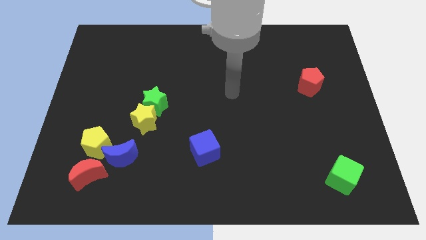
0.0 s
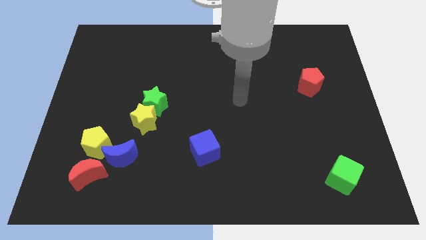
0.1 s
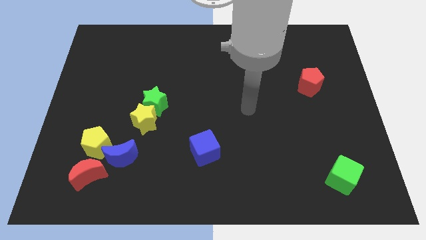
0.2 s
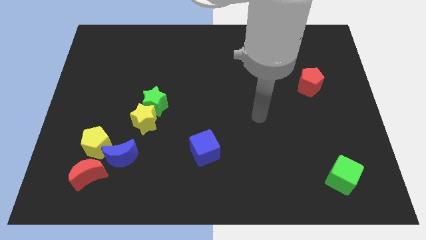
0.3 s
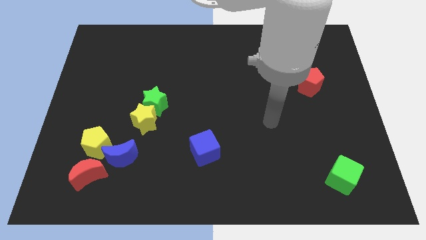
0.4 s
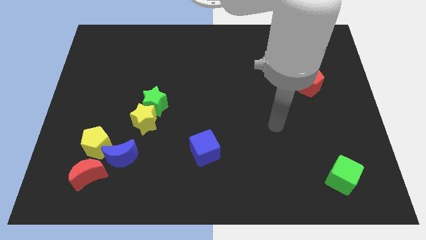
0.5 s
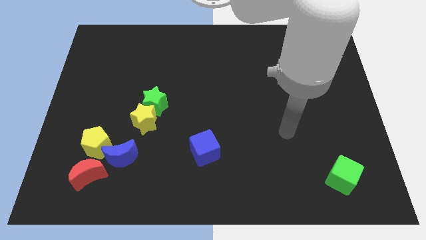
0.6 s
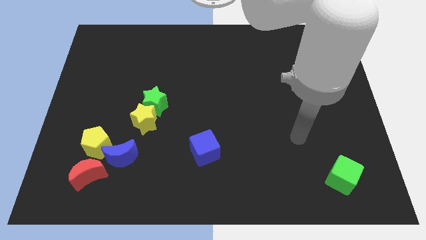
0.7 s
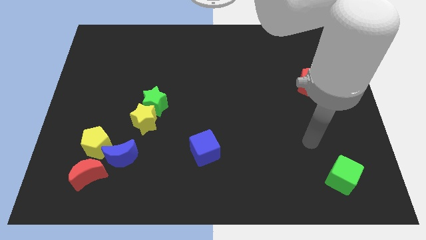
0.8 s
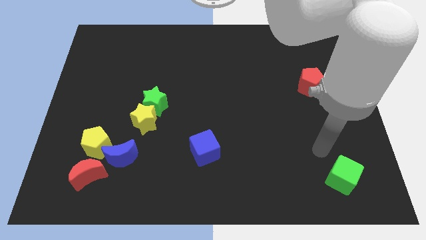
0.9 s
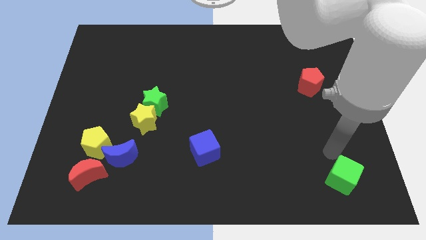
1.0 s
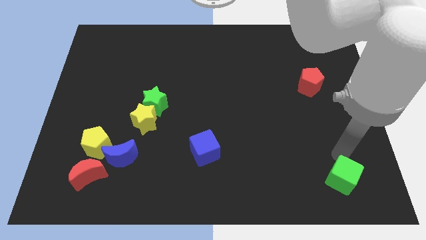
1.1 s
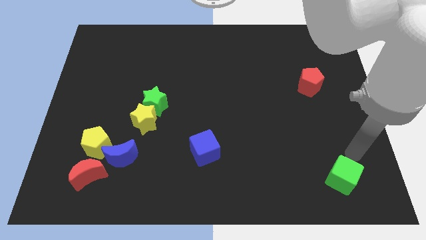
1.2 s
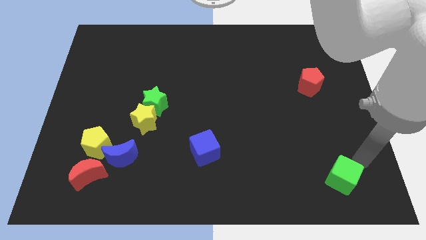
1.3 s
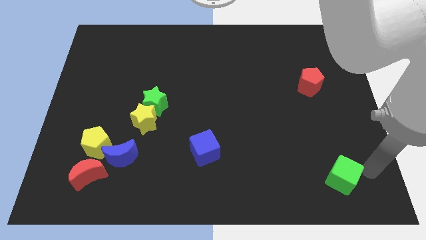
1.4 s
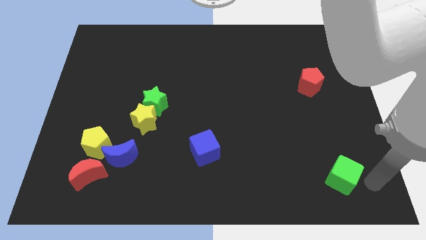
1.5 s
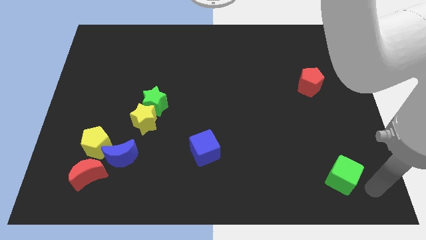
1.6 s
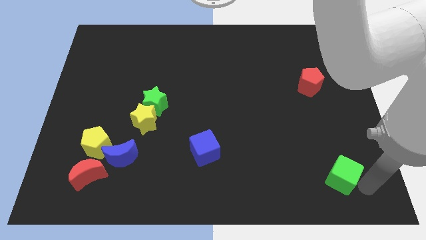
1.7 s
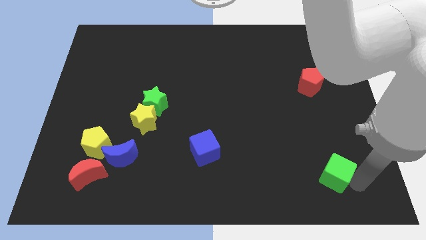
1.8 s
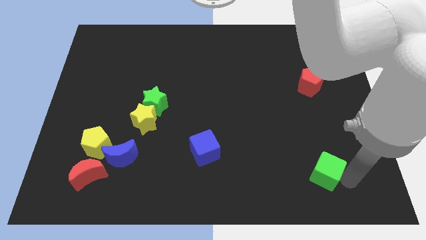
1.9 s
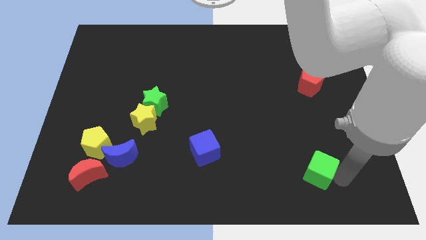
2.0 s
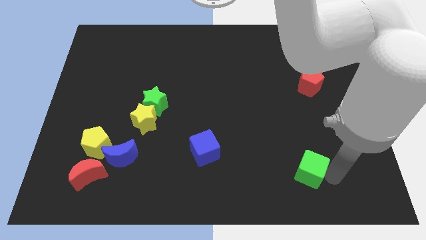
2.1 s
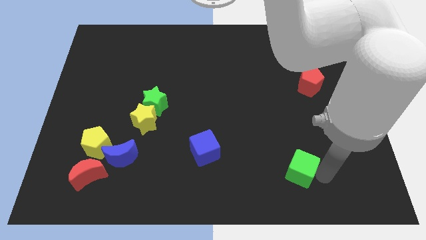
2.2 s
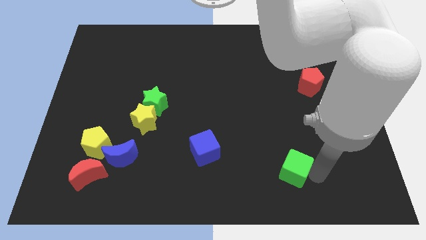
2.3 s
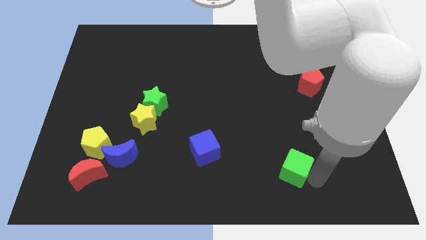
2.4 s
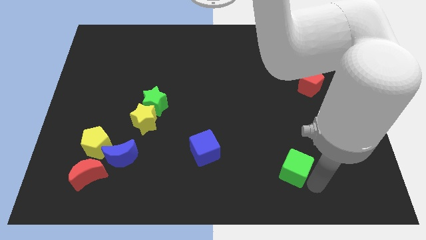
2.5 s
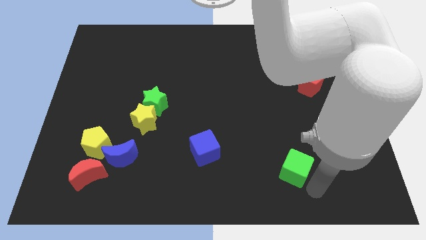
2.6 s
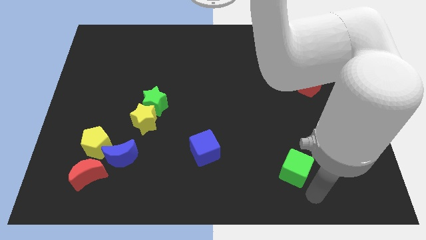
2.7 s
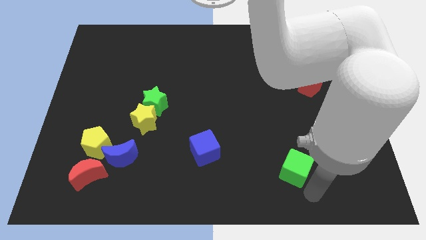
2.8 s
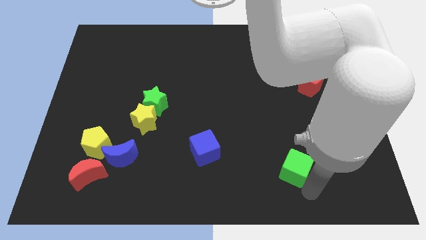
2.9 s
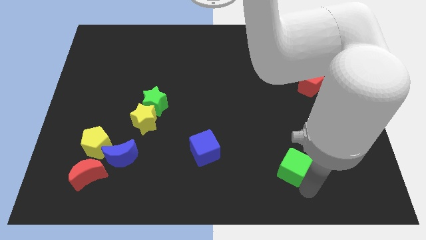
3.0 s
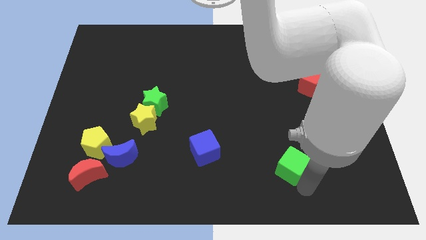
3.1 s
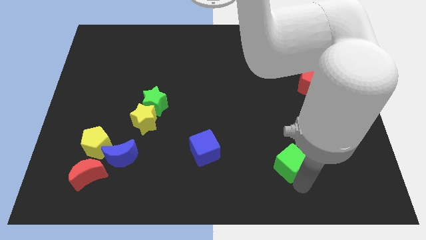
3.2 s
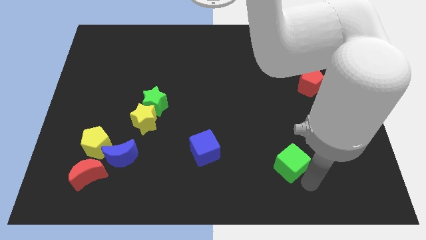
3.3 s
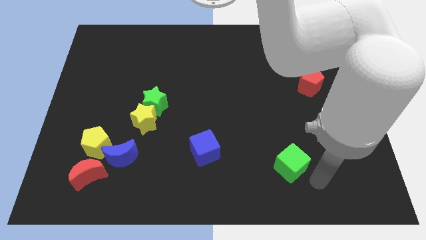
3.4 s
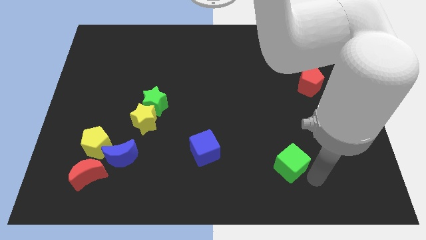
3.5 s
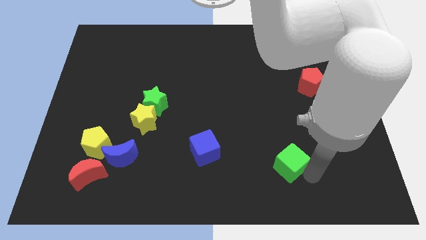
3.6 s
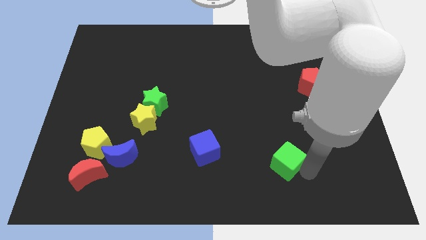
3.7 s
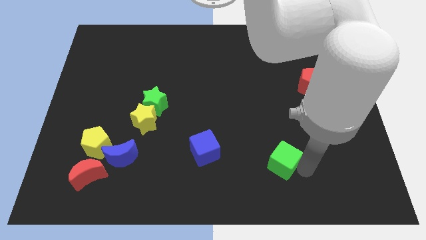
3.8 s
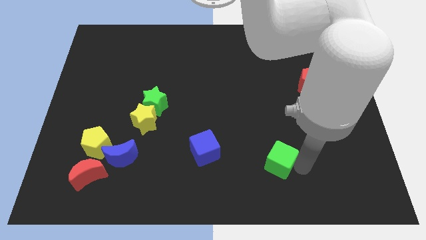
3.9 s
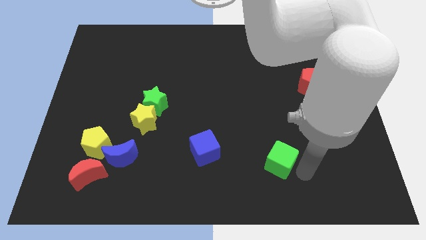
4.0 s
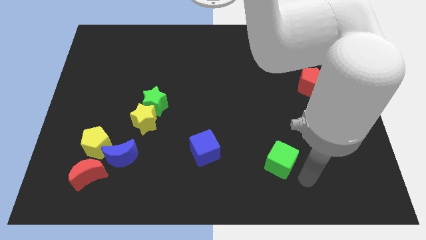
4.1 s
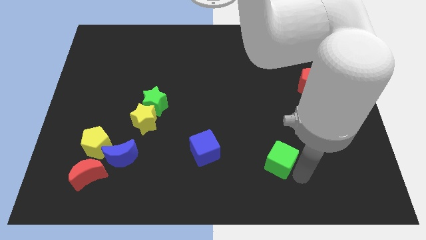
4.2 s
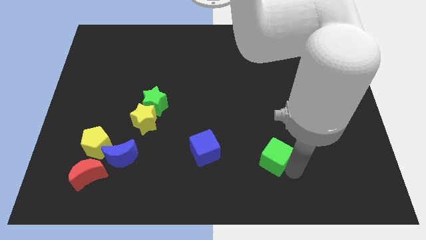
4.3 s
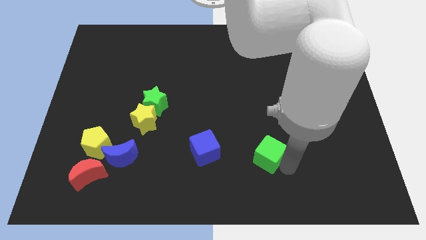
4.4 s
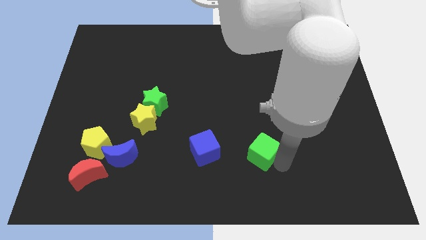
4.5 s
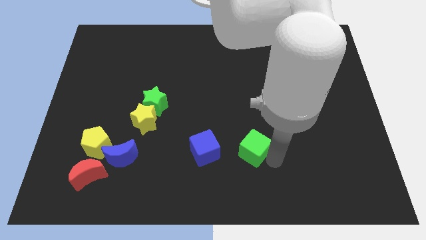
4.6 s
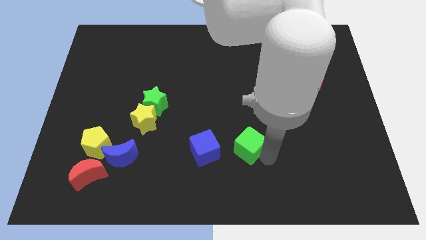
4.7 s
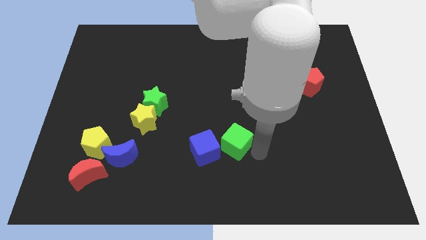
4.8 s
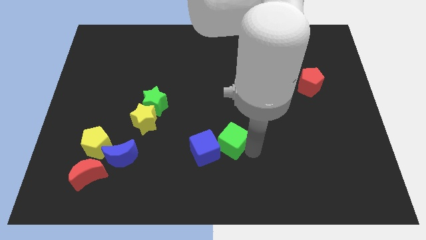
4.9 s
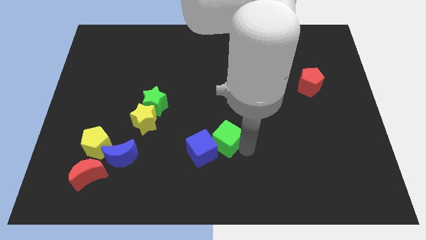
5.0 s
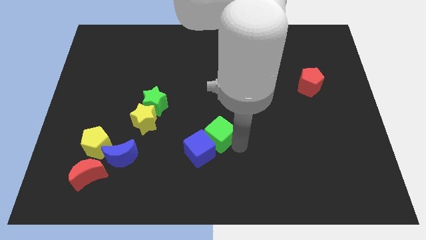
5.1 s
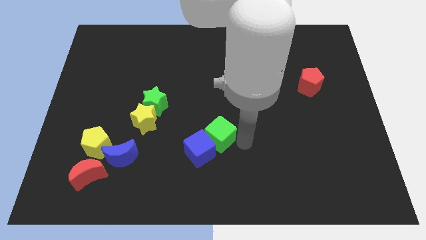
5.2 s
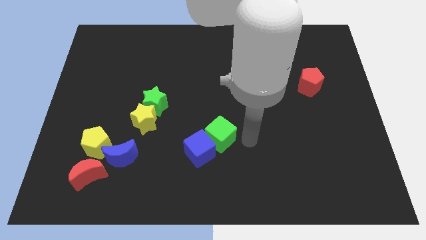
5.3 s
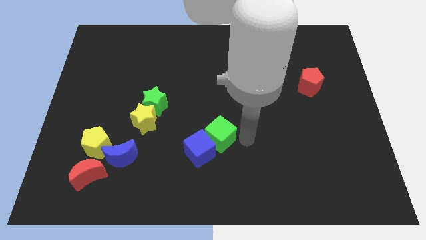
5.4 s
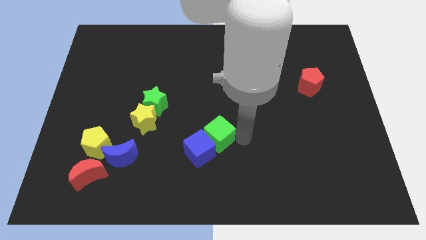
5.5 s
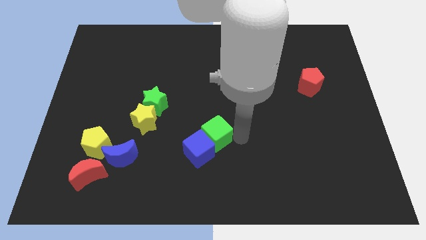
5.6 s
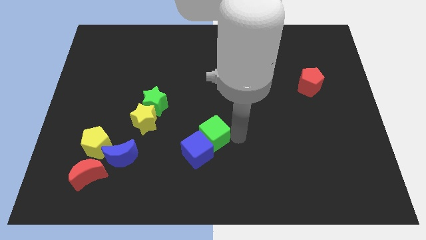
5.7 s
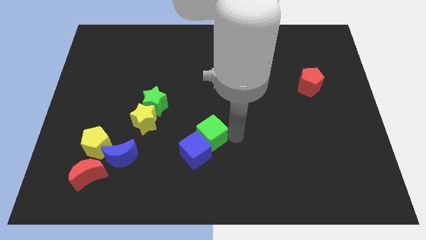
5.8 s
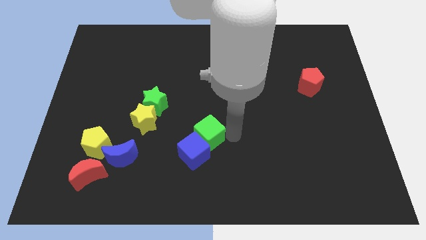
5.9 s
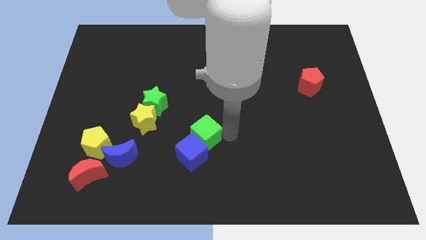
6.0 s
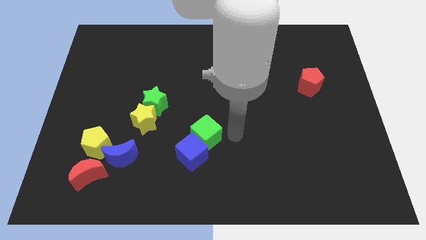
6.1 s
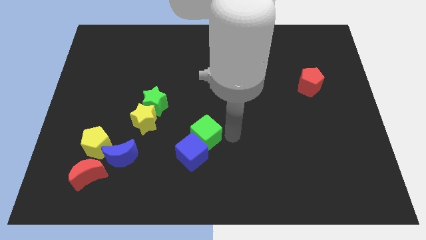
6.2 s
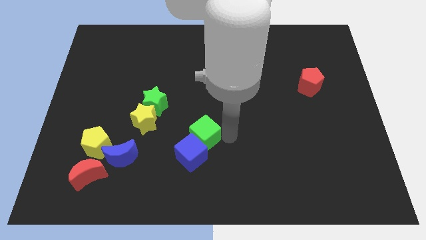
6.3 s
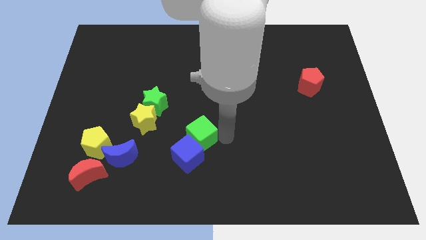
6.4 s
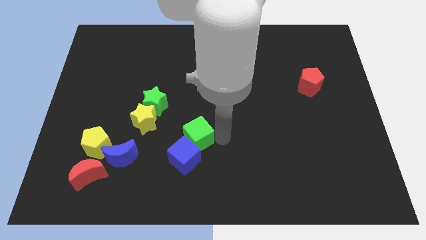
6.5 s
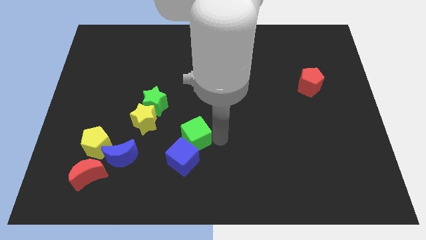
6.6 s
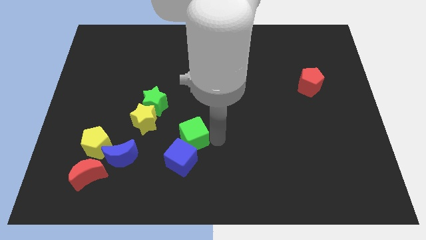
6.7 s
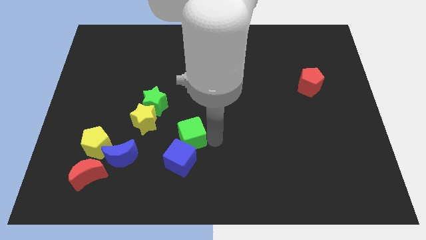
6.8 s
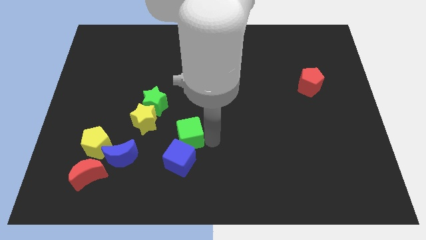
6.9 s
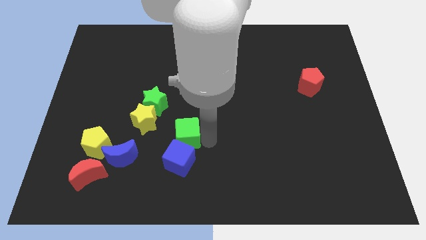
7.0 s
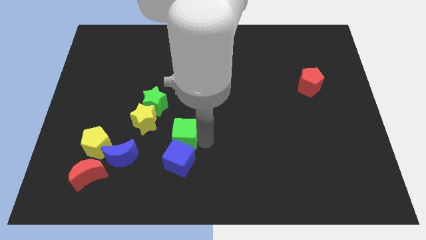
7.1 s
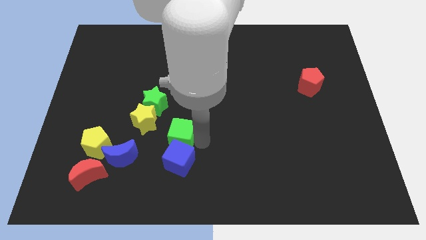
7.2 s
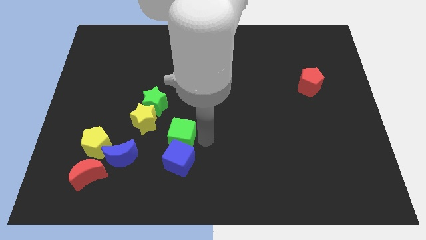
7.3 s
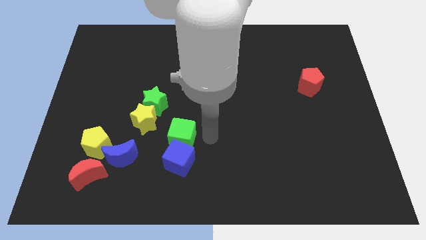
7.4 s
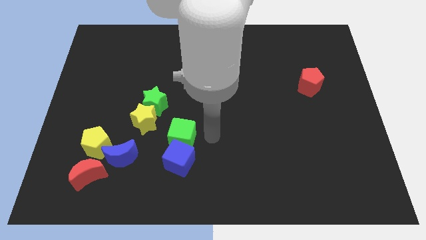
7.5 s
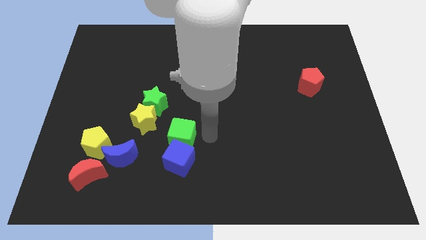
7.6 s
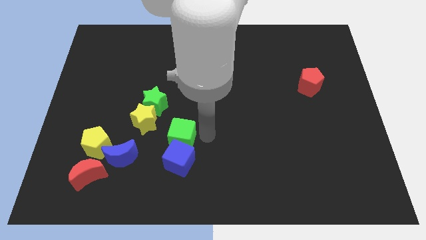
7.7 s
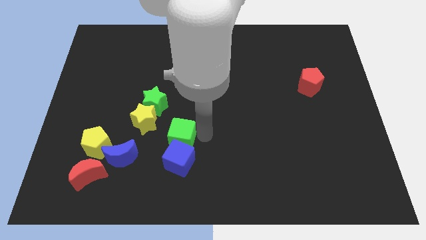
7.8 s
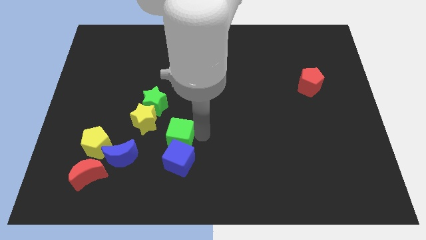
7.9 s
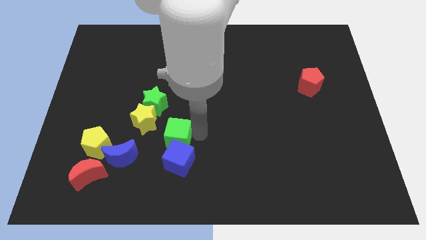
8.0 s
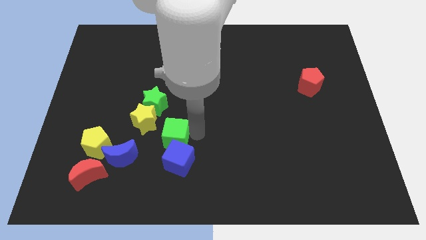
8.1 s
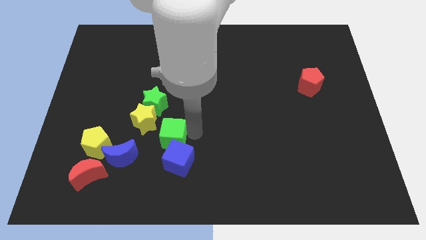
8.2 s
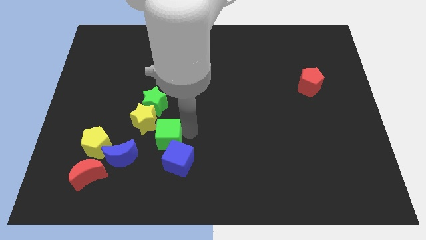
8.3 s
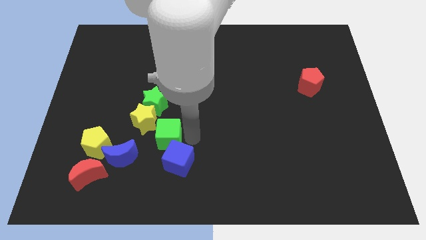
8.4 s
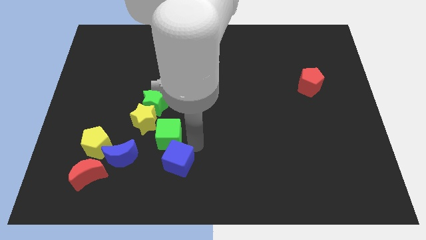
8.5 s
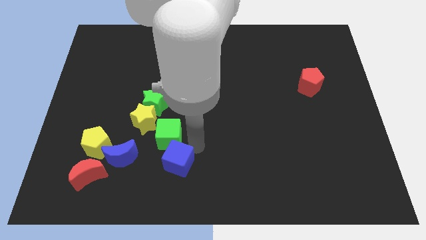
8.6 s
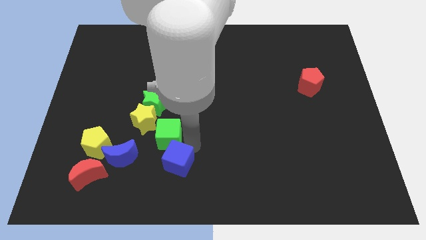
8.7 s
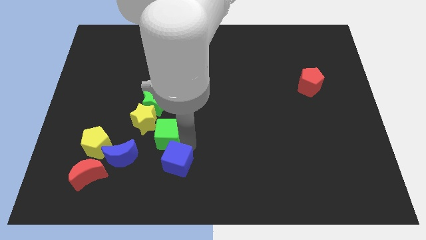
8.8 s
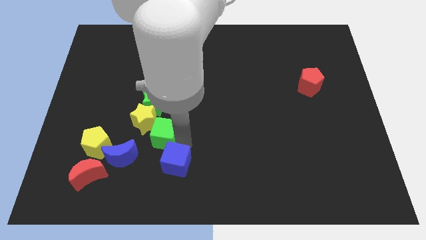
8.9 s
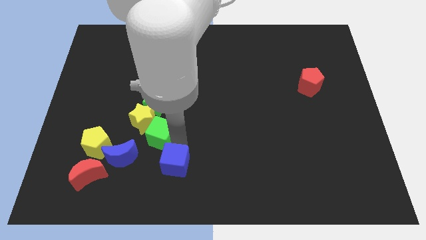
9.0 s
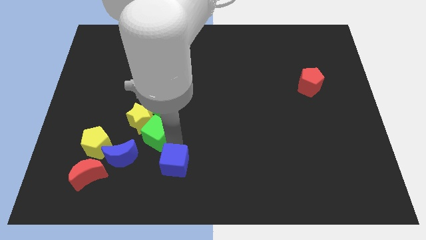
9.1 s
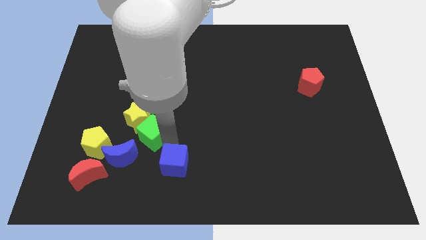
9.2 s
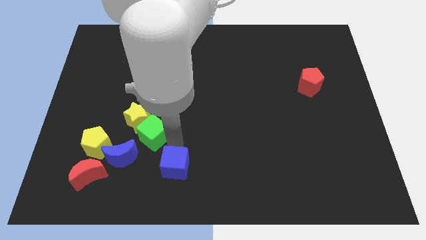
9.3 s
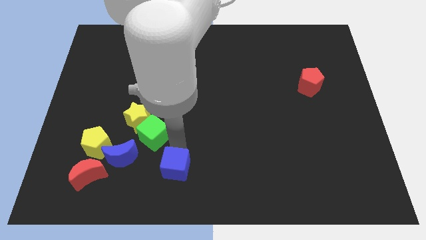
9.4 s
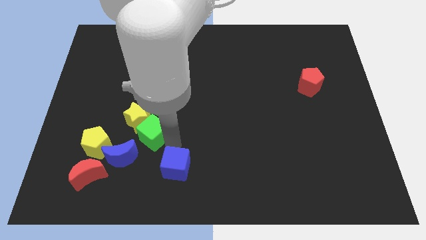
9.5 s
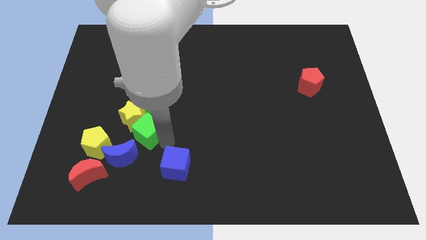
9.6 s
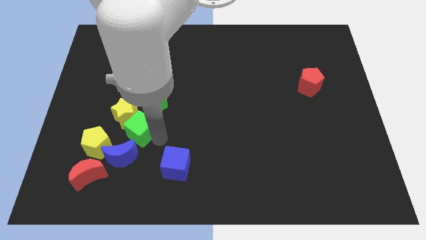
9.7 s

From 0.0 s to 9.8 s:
put the green cube to the bottom left side of the green star
